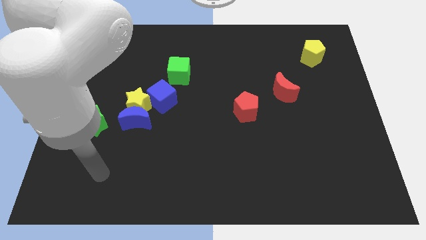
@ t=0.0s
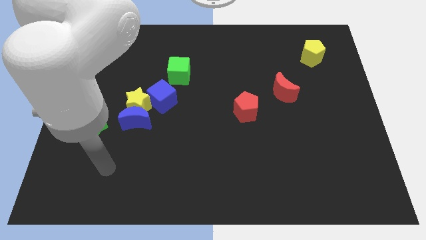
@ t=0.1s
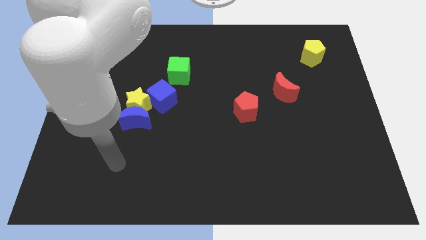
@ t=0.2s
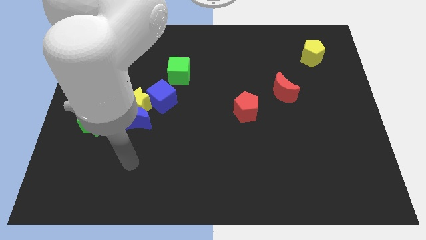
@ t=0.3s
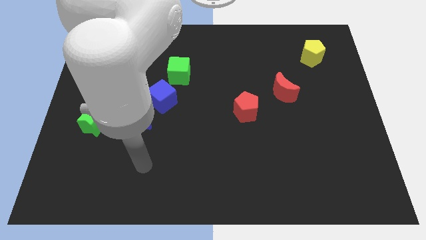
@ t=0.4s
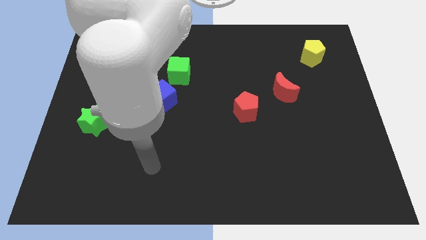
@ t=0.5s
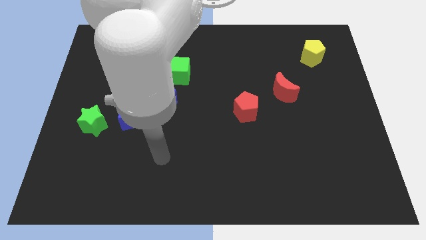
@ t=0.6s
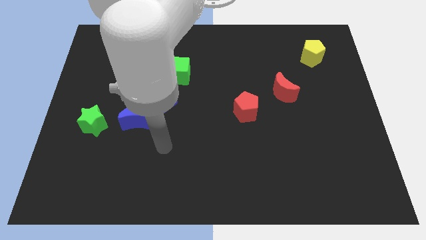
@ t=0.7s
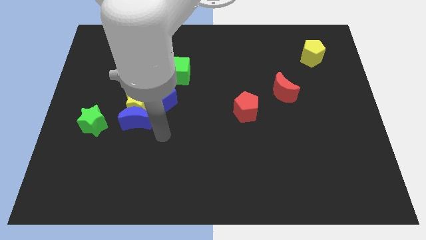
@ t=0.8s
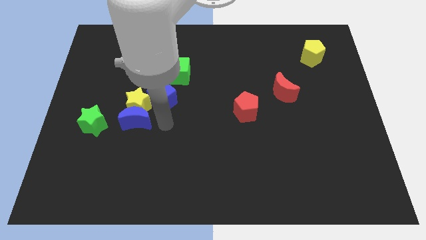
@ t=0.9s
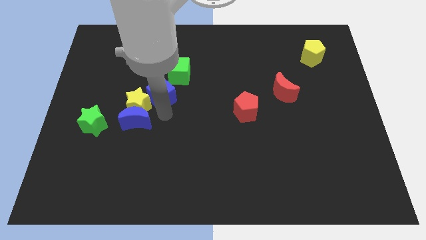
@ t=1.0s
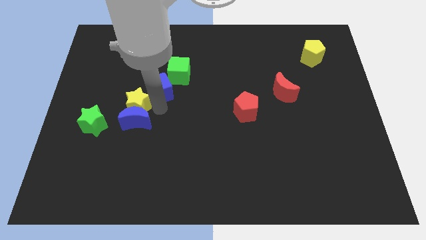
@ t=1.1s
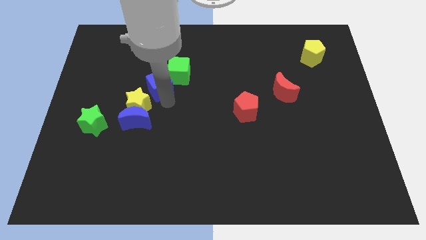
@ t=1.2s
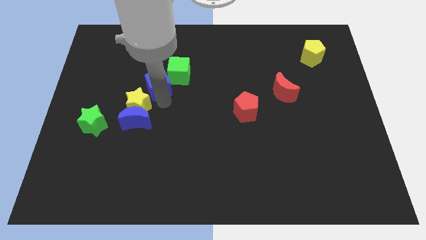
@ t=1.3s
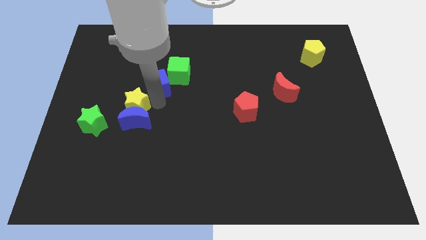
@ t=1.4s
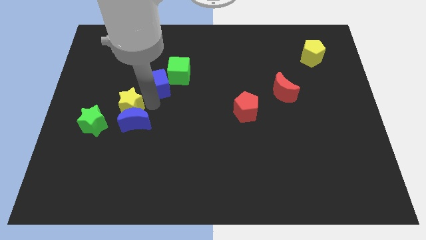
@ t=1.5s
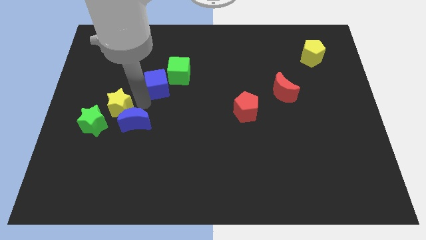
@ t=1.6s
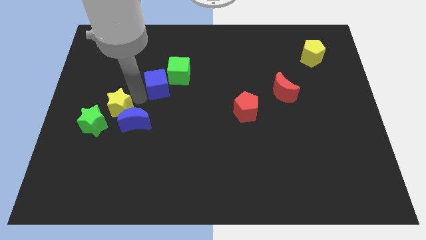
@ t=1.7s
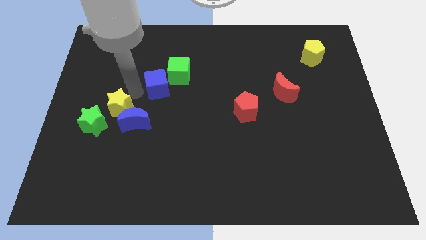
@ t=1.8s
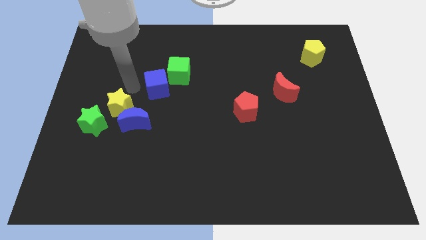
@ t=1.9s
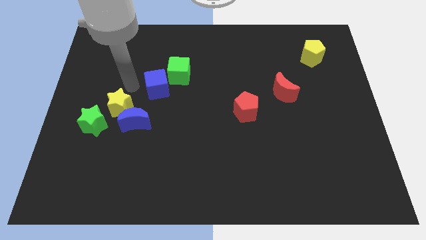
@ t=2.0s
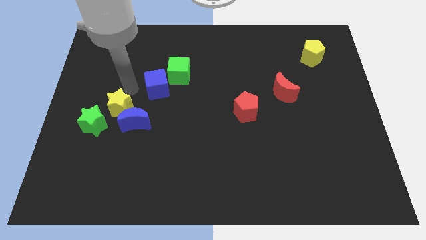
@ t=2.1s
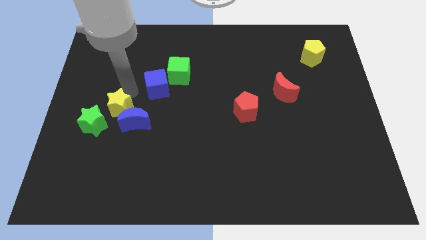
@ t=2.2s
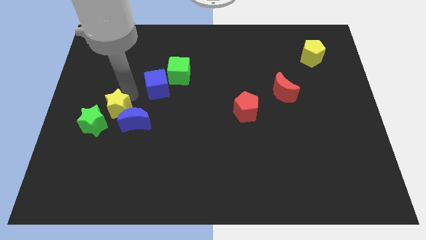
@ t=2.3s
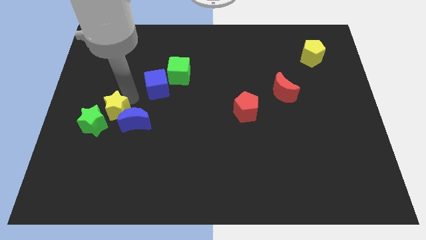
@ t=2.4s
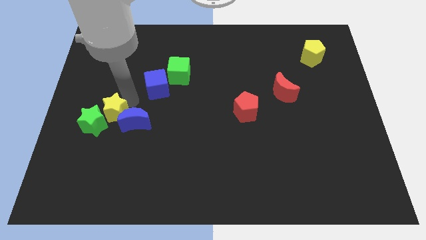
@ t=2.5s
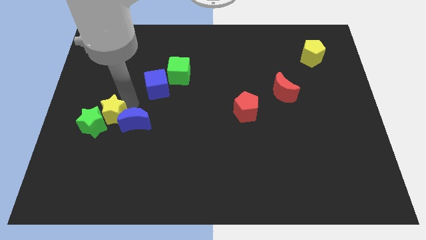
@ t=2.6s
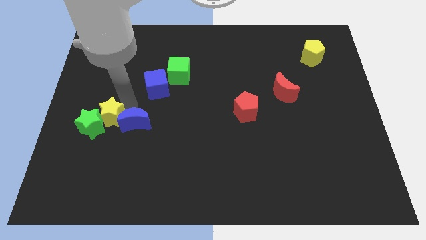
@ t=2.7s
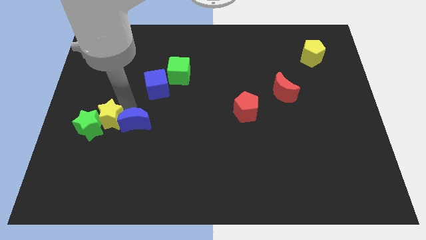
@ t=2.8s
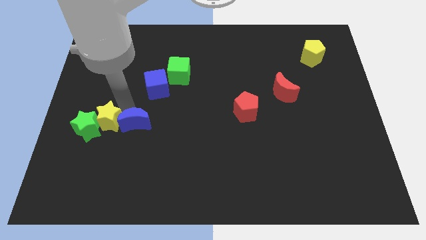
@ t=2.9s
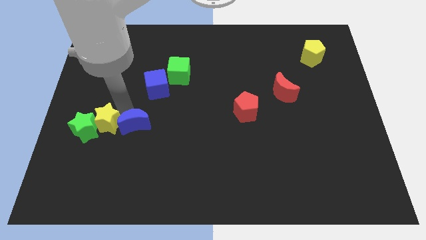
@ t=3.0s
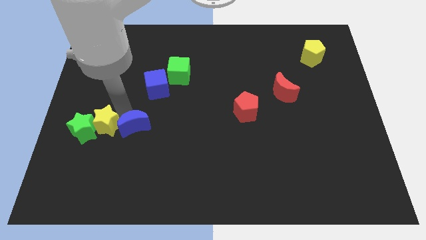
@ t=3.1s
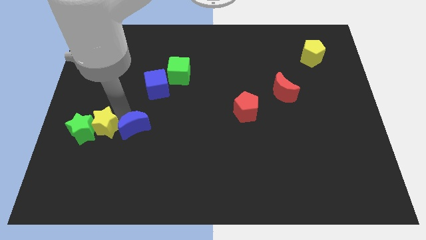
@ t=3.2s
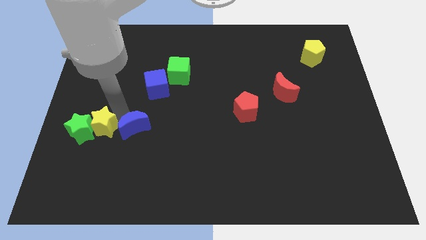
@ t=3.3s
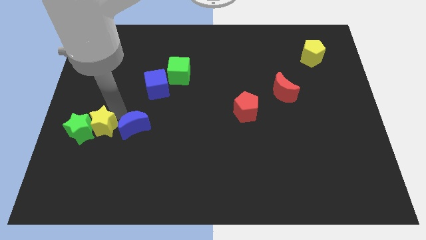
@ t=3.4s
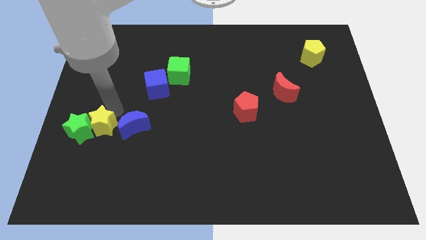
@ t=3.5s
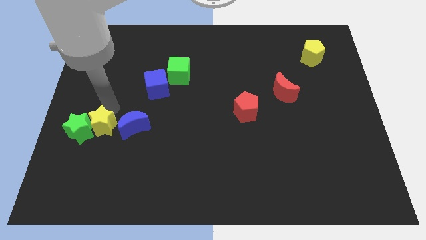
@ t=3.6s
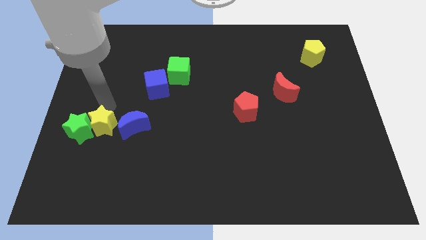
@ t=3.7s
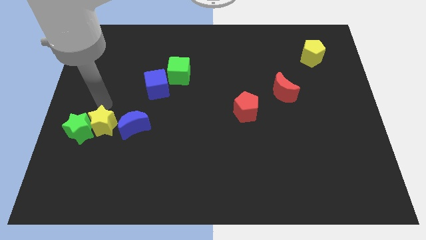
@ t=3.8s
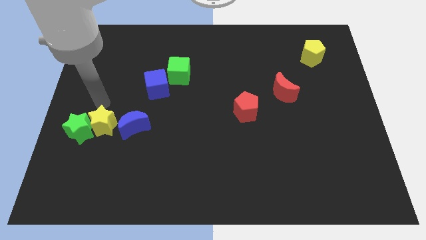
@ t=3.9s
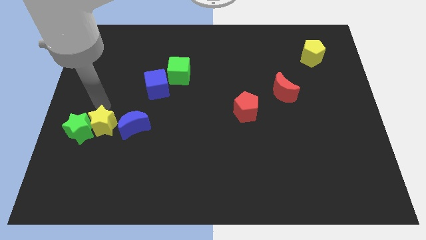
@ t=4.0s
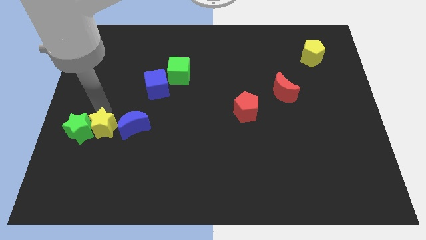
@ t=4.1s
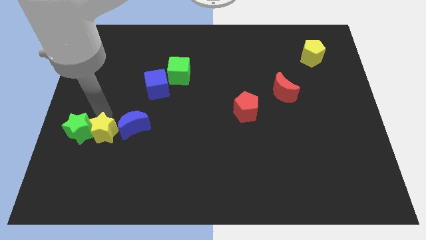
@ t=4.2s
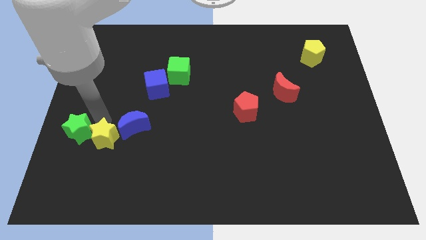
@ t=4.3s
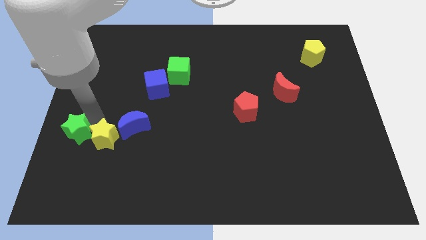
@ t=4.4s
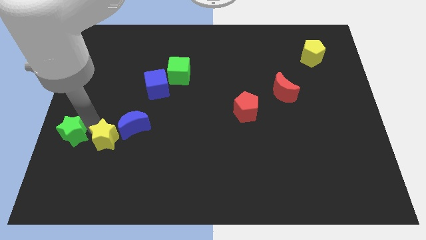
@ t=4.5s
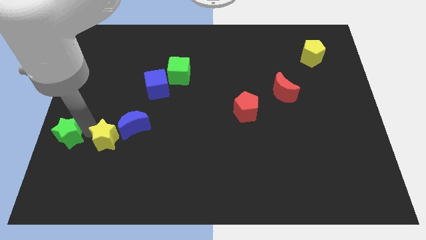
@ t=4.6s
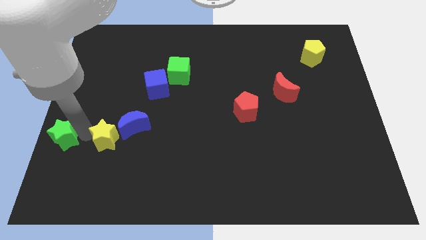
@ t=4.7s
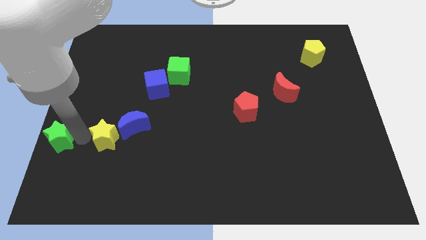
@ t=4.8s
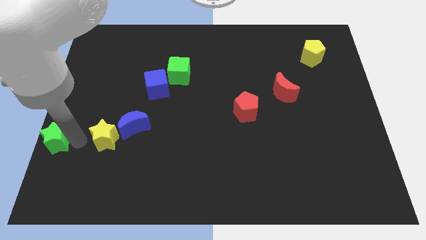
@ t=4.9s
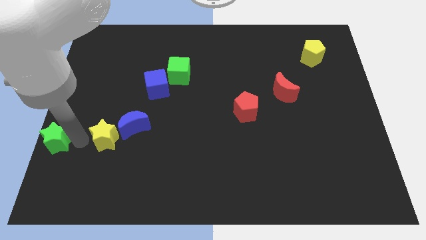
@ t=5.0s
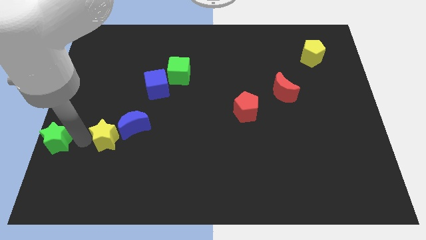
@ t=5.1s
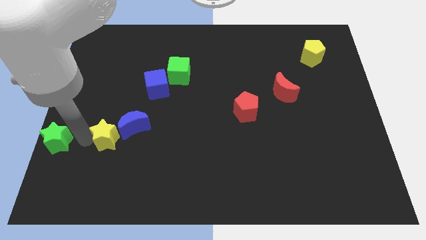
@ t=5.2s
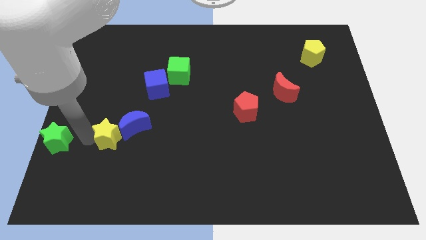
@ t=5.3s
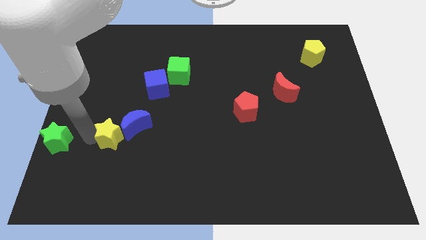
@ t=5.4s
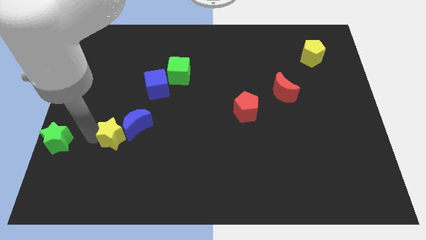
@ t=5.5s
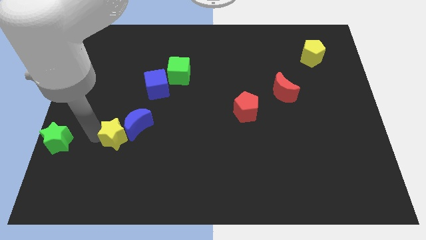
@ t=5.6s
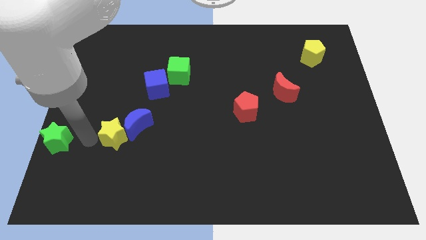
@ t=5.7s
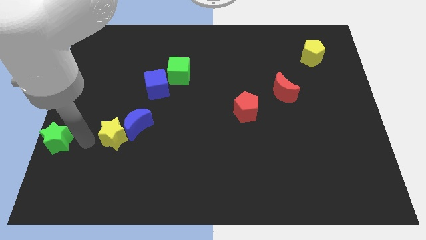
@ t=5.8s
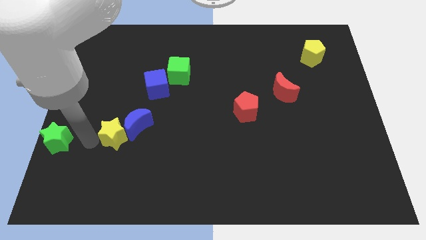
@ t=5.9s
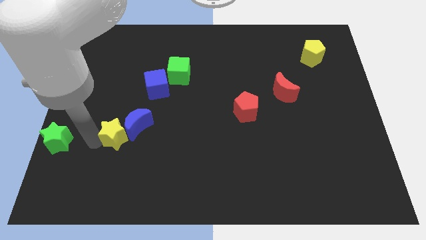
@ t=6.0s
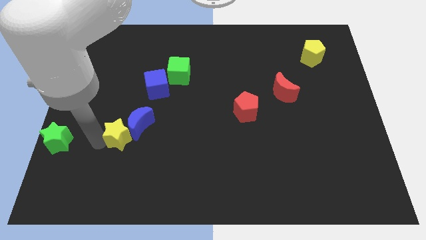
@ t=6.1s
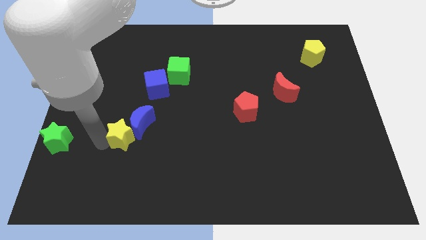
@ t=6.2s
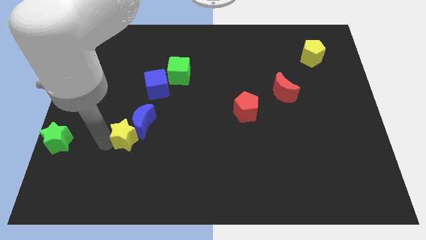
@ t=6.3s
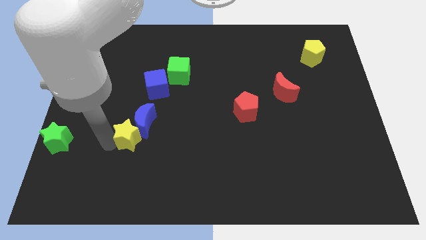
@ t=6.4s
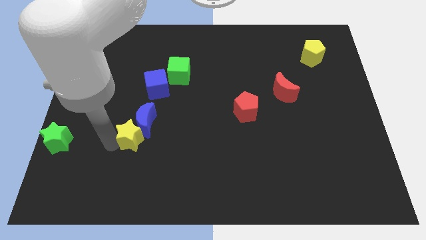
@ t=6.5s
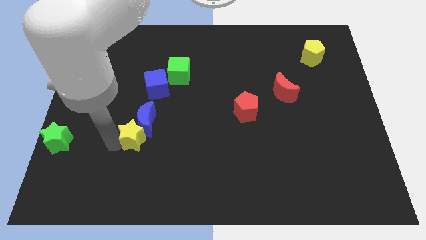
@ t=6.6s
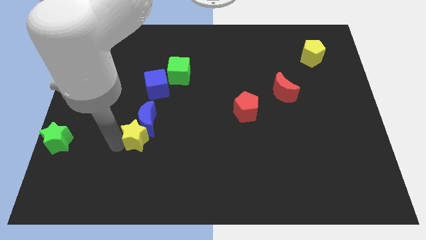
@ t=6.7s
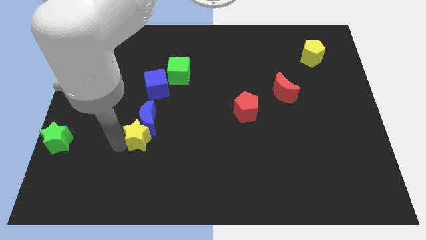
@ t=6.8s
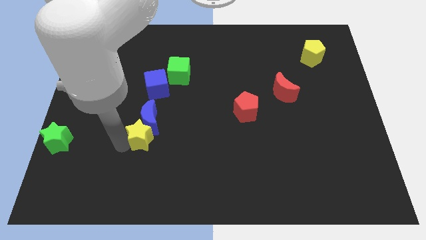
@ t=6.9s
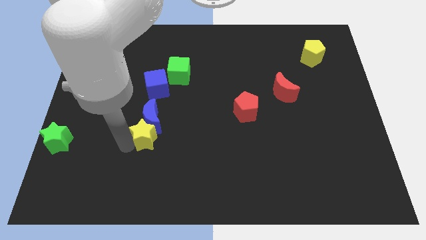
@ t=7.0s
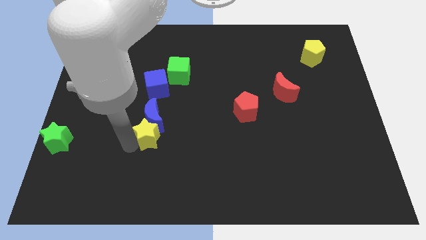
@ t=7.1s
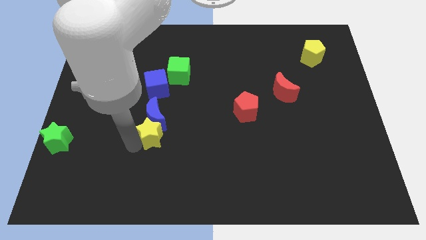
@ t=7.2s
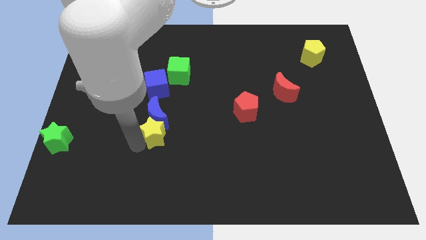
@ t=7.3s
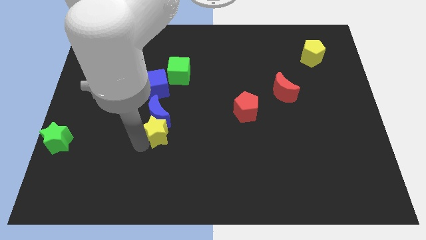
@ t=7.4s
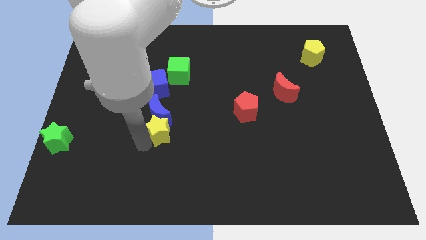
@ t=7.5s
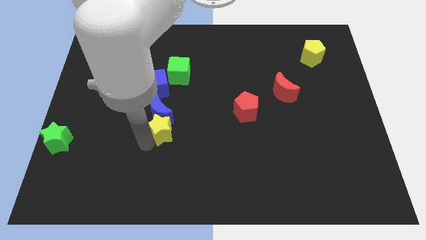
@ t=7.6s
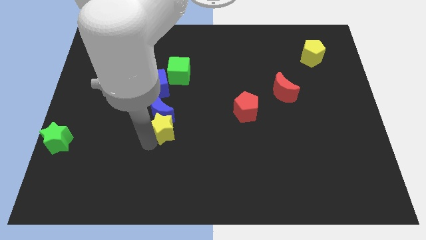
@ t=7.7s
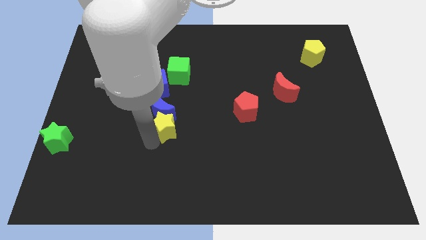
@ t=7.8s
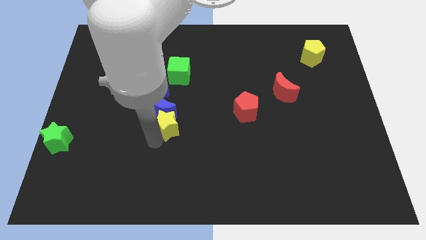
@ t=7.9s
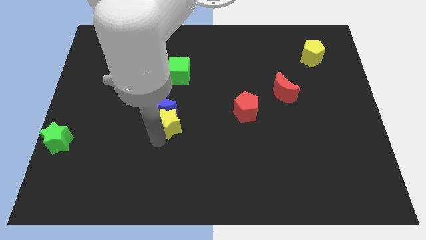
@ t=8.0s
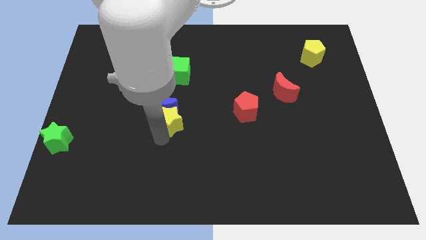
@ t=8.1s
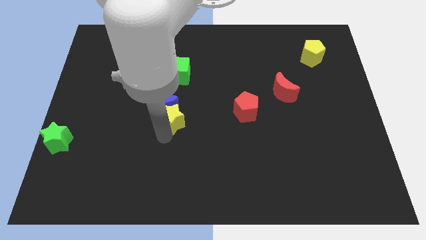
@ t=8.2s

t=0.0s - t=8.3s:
put the yellow star to the bottom right of the blue cube
